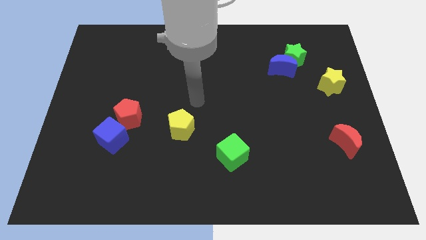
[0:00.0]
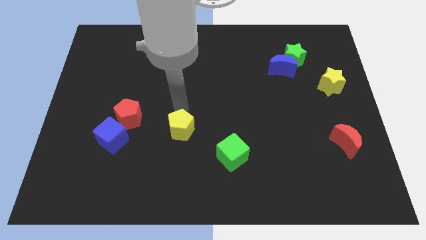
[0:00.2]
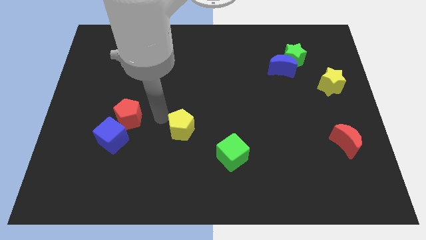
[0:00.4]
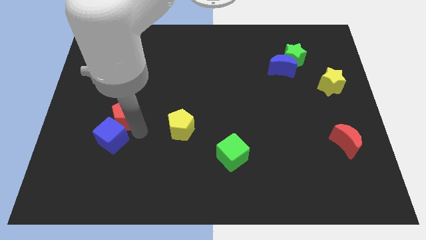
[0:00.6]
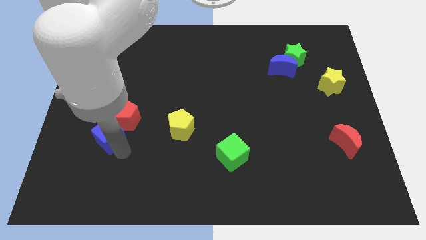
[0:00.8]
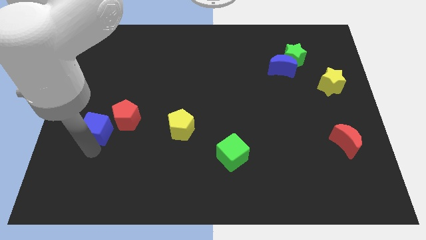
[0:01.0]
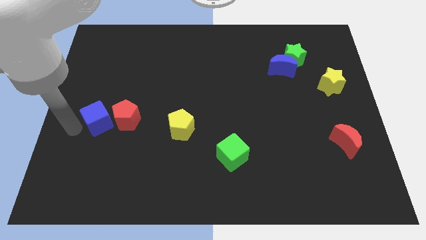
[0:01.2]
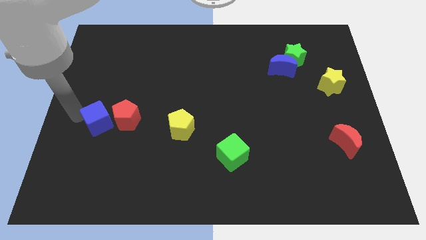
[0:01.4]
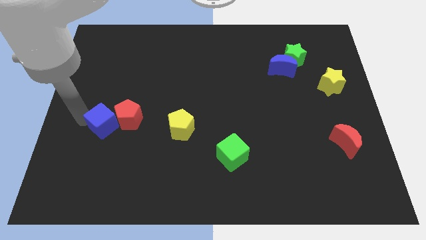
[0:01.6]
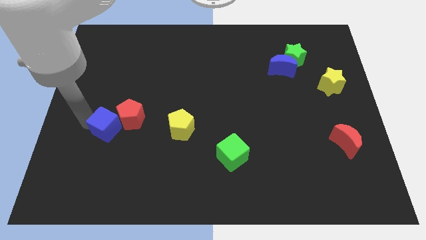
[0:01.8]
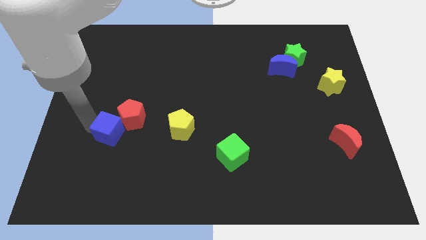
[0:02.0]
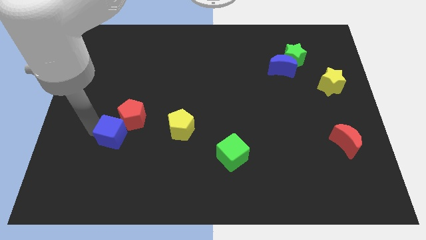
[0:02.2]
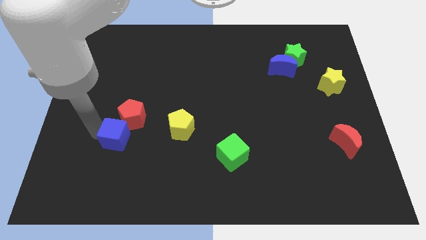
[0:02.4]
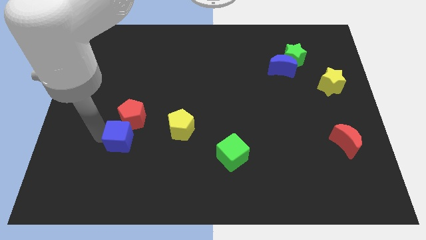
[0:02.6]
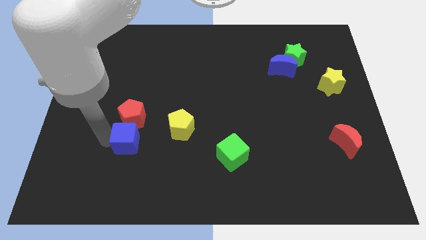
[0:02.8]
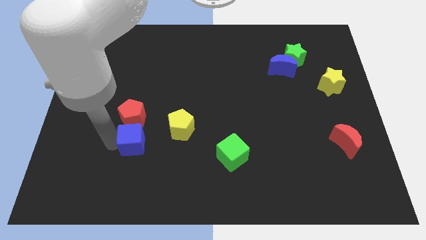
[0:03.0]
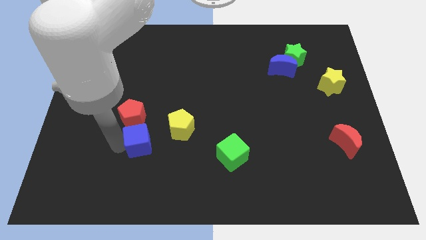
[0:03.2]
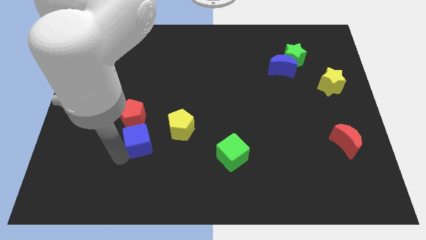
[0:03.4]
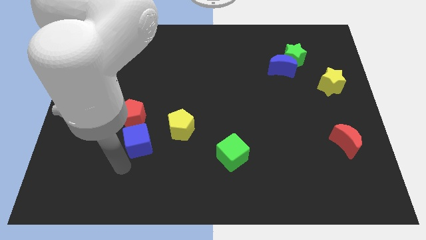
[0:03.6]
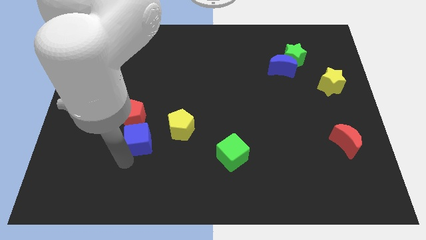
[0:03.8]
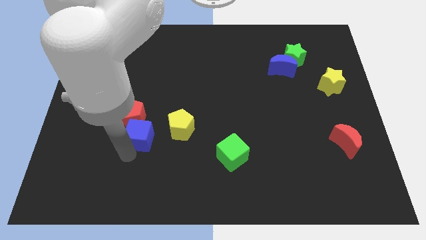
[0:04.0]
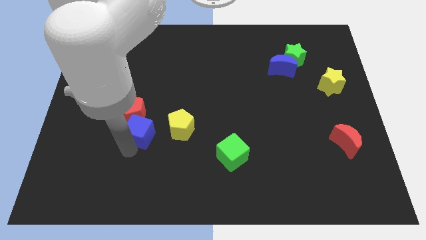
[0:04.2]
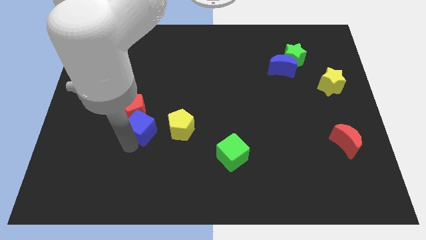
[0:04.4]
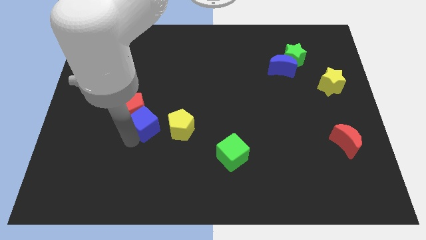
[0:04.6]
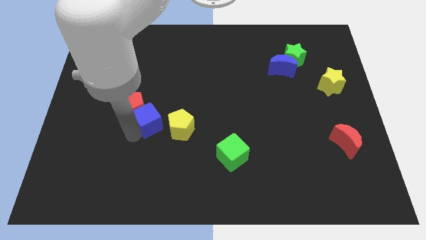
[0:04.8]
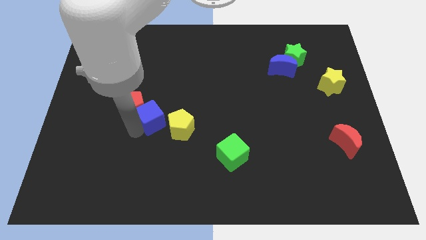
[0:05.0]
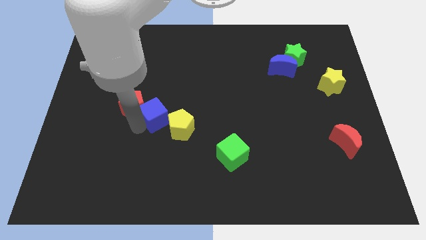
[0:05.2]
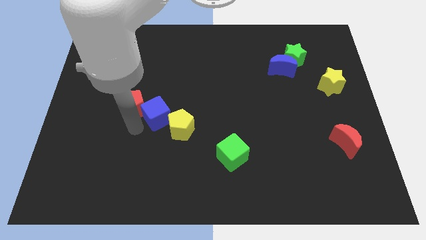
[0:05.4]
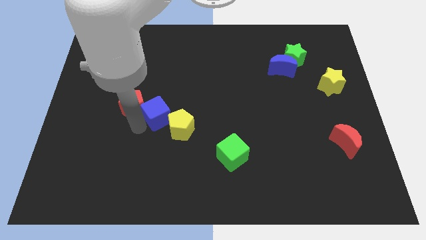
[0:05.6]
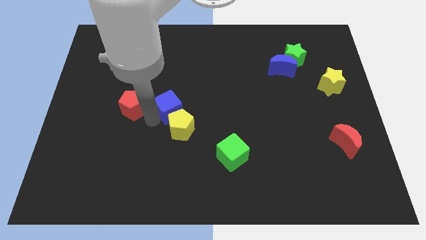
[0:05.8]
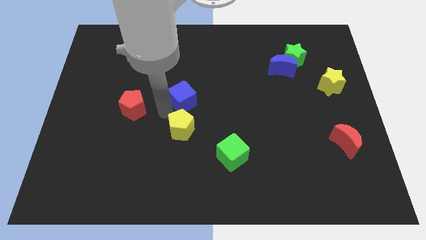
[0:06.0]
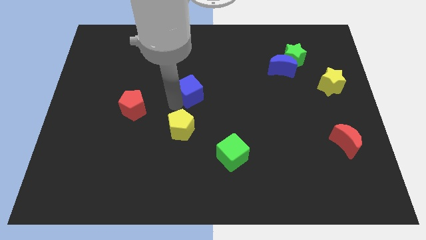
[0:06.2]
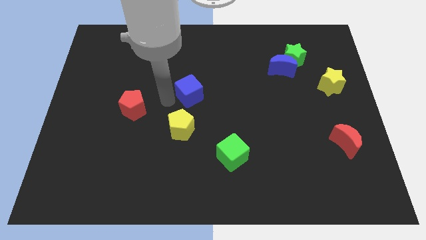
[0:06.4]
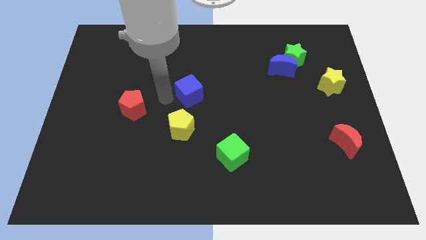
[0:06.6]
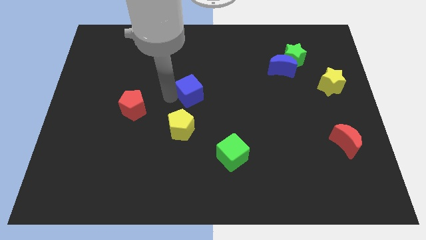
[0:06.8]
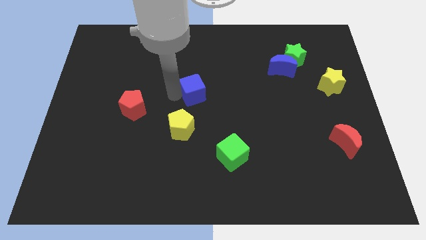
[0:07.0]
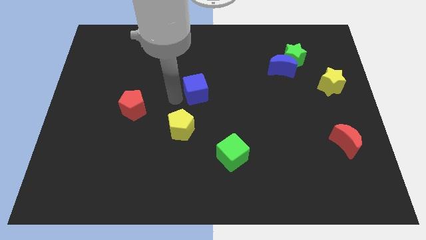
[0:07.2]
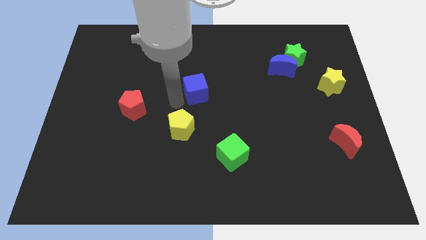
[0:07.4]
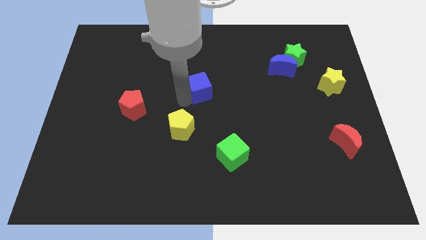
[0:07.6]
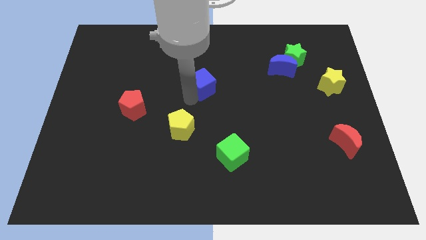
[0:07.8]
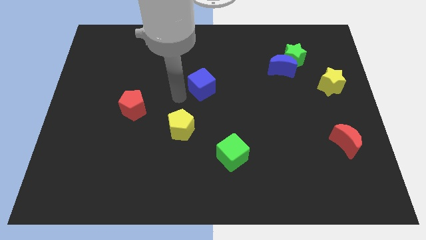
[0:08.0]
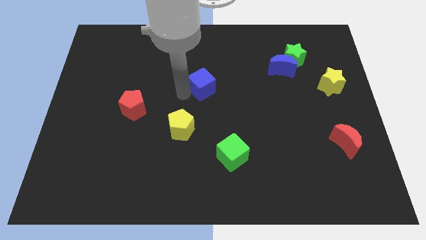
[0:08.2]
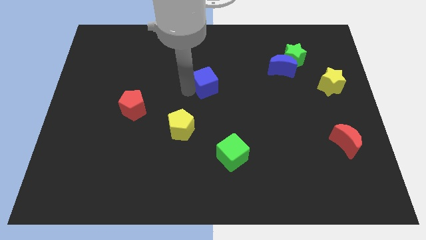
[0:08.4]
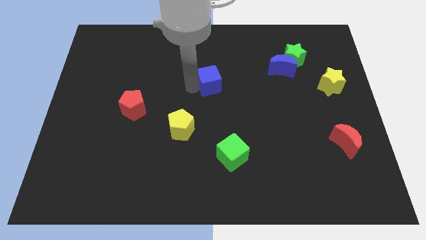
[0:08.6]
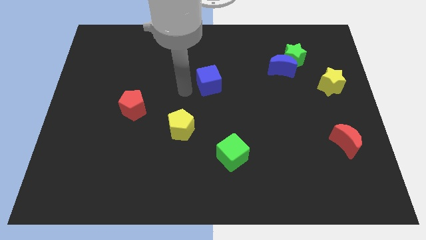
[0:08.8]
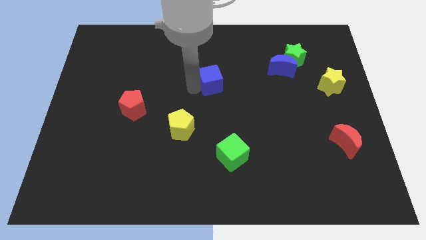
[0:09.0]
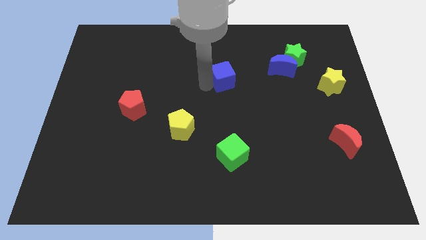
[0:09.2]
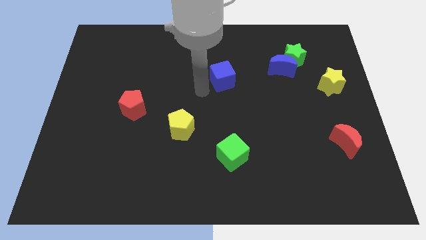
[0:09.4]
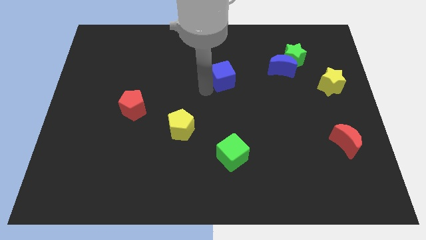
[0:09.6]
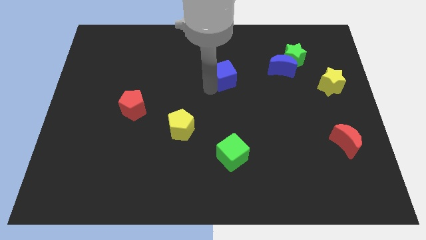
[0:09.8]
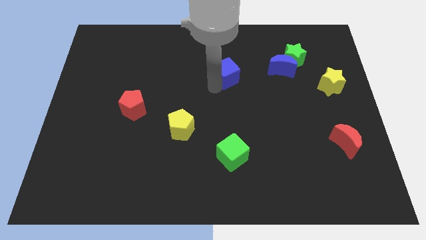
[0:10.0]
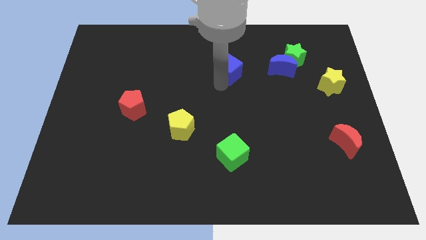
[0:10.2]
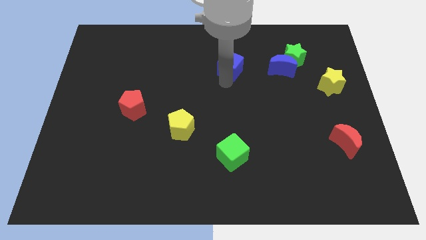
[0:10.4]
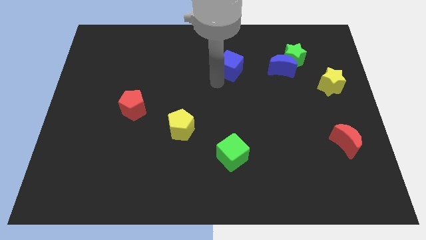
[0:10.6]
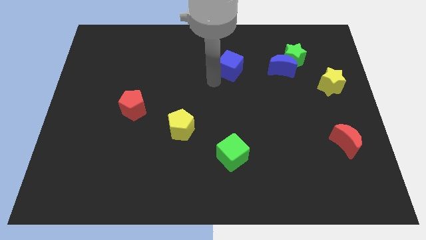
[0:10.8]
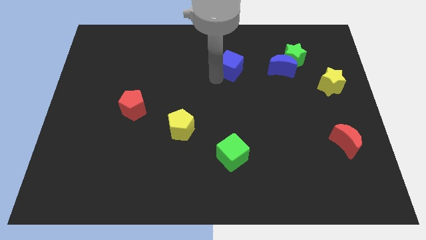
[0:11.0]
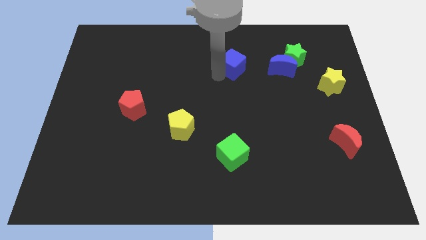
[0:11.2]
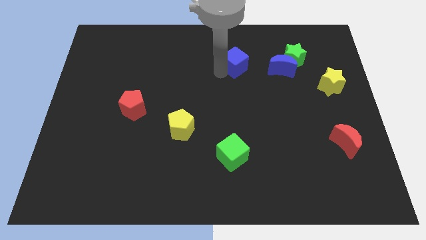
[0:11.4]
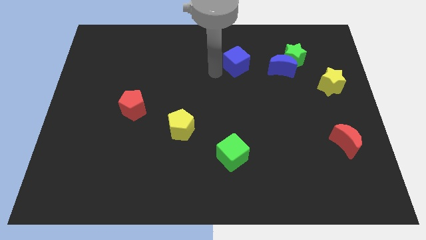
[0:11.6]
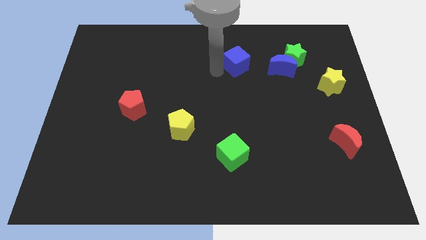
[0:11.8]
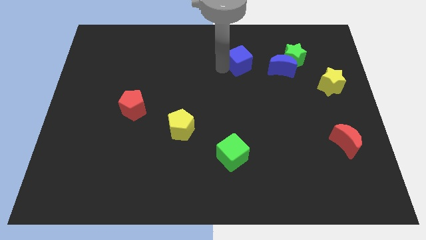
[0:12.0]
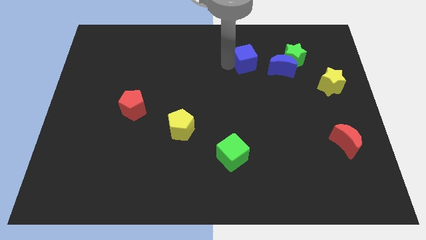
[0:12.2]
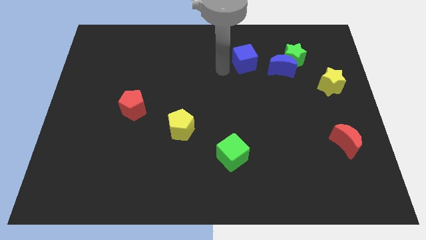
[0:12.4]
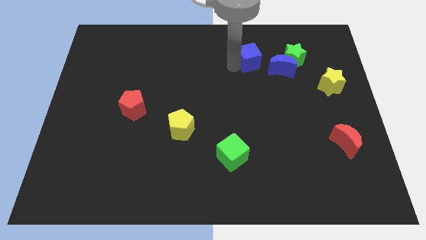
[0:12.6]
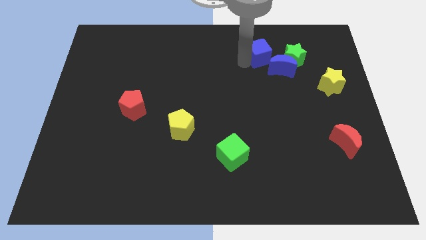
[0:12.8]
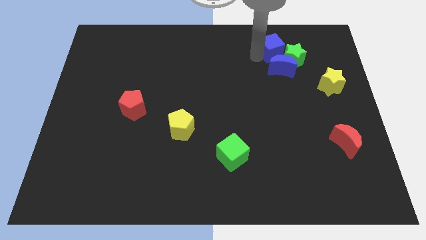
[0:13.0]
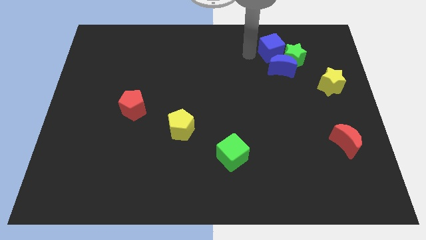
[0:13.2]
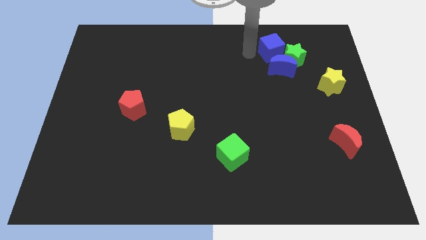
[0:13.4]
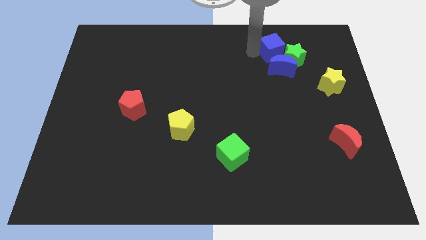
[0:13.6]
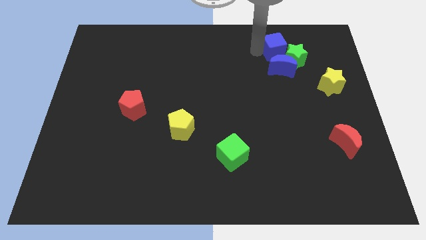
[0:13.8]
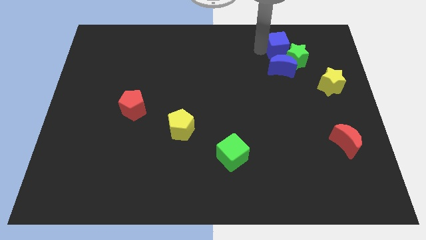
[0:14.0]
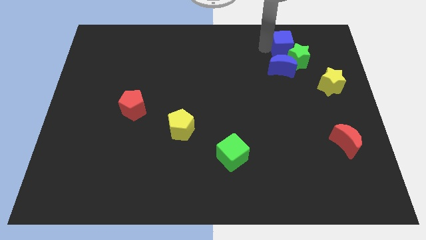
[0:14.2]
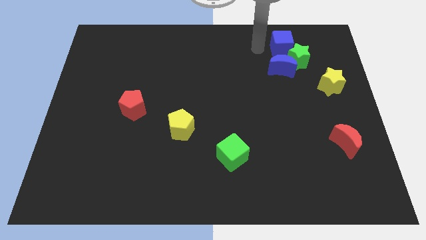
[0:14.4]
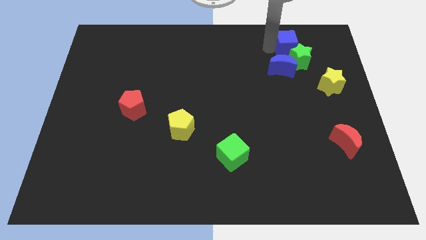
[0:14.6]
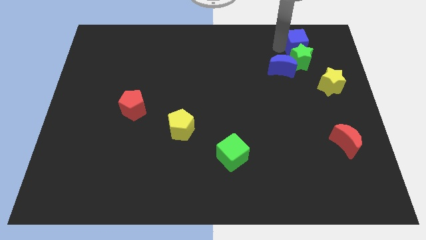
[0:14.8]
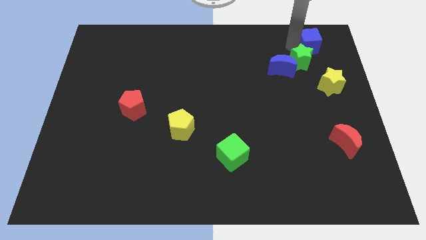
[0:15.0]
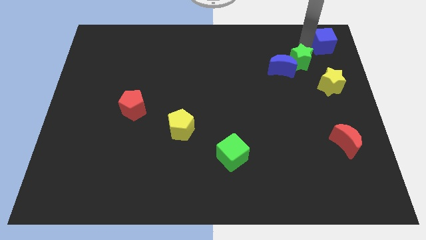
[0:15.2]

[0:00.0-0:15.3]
push the blue cube to the top right
